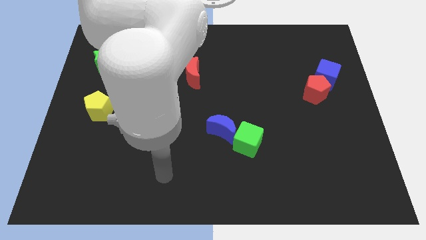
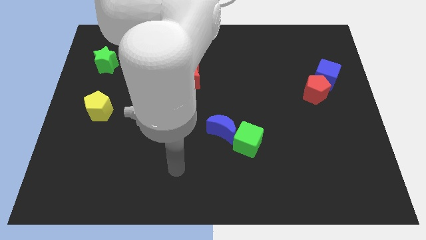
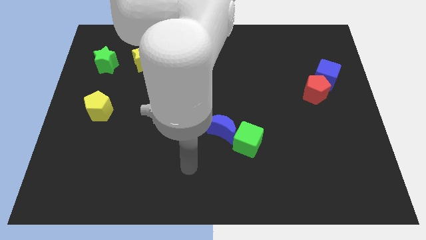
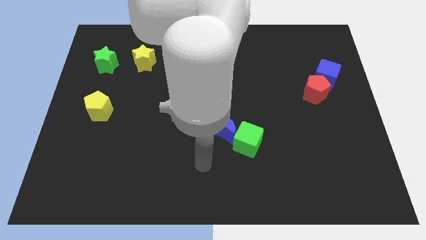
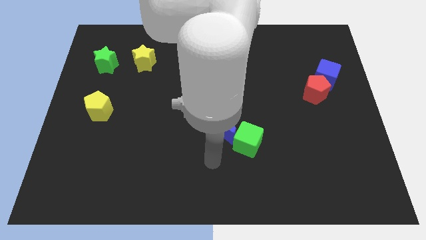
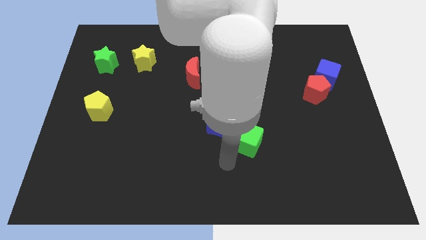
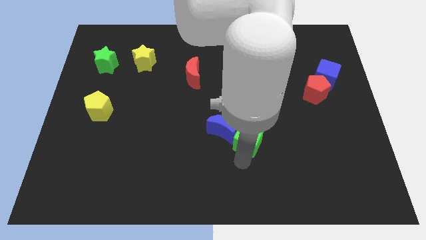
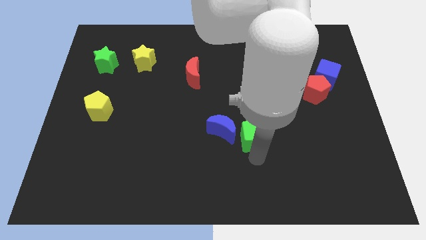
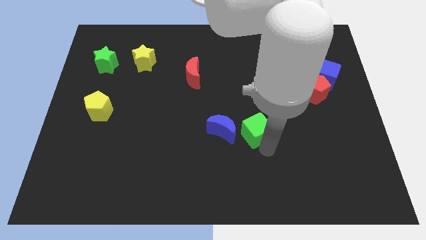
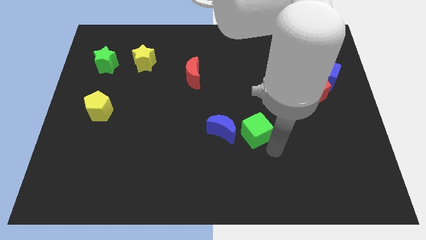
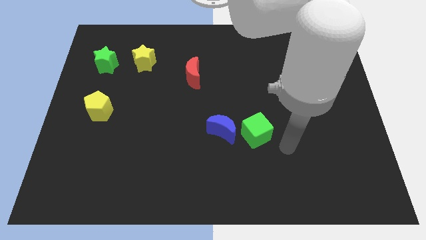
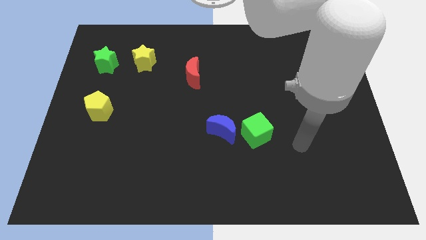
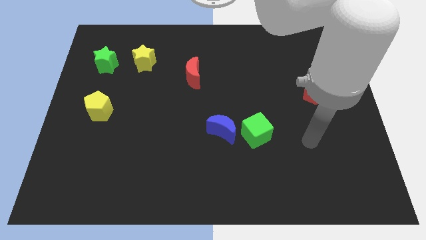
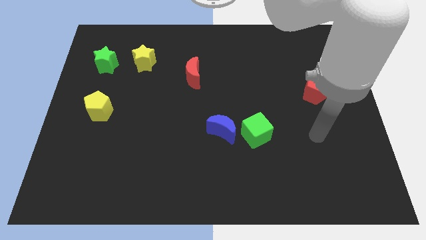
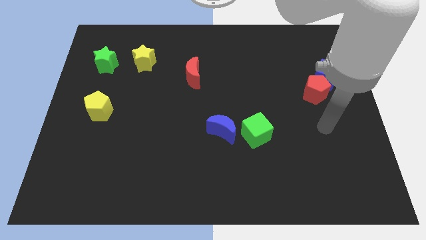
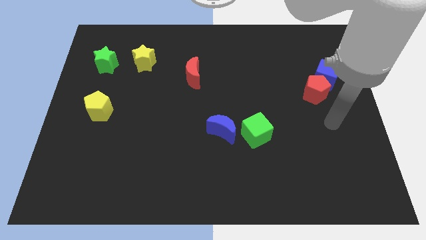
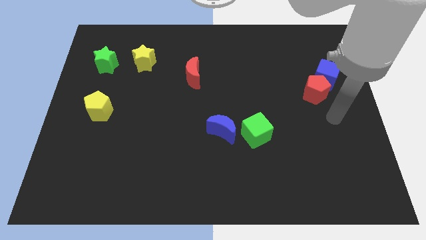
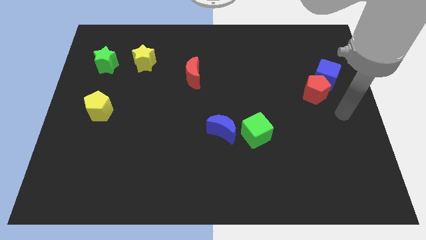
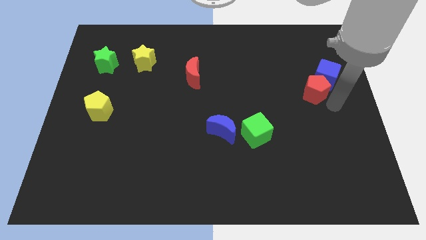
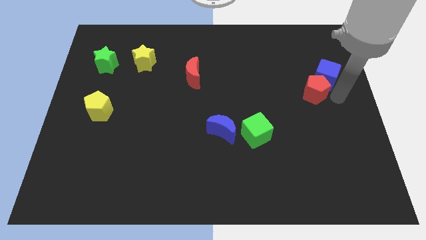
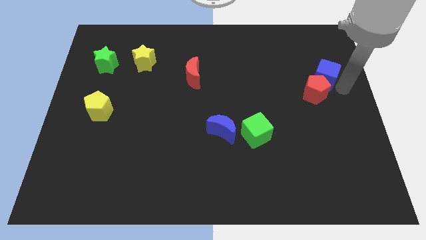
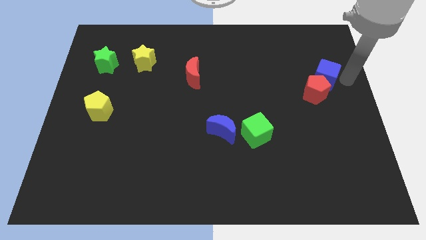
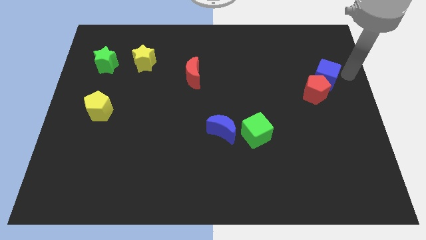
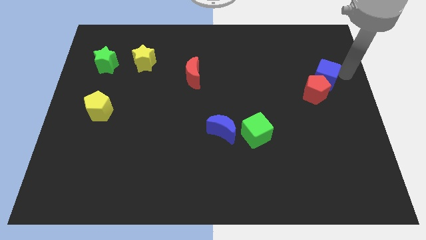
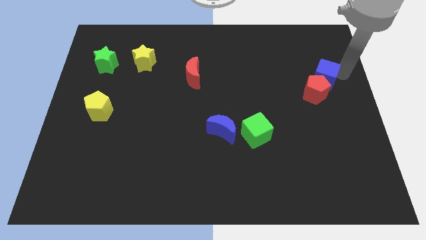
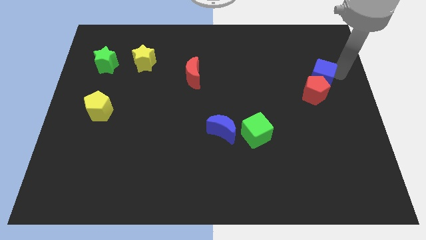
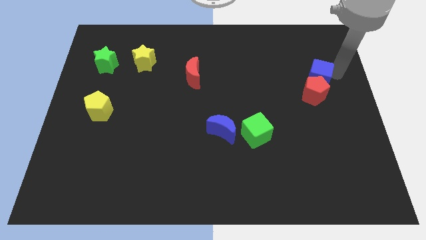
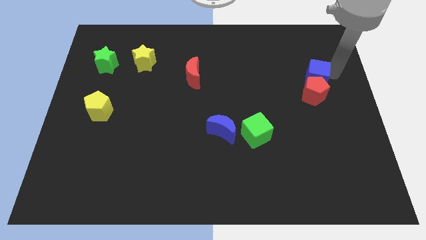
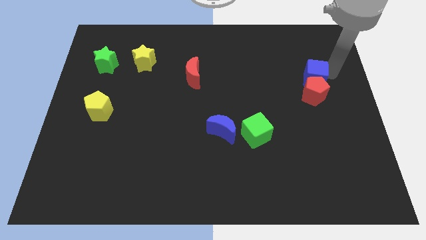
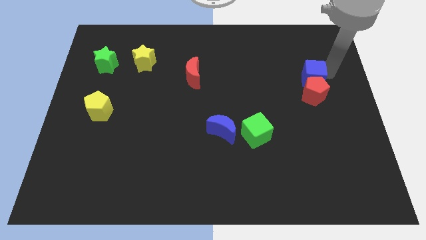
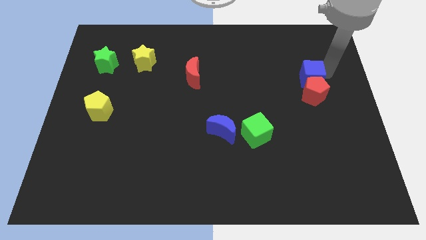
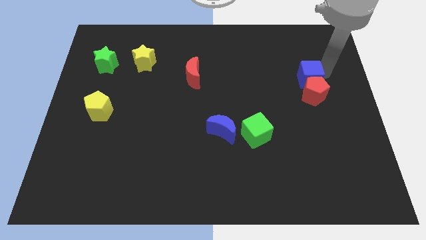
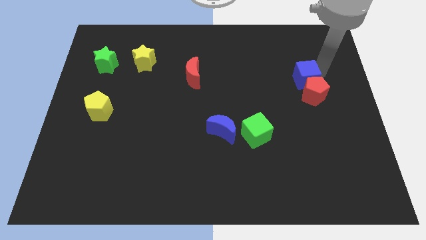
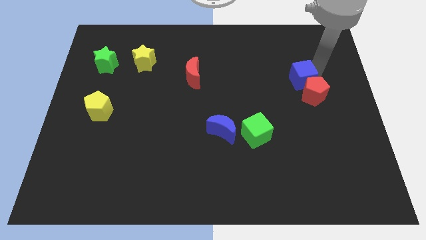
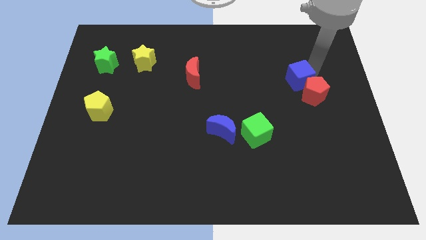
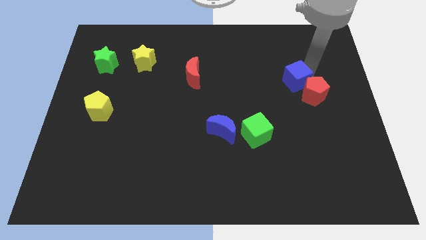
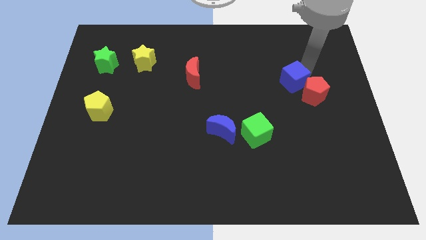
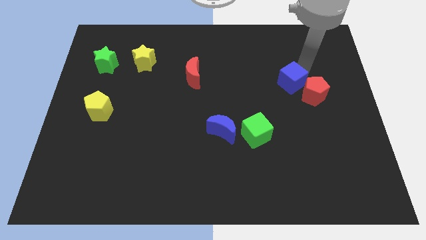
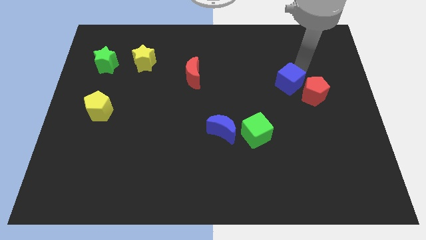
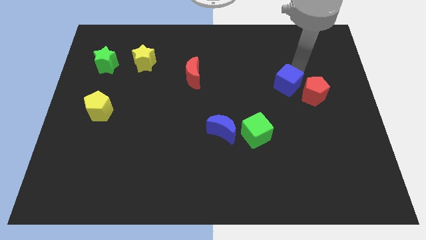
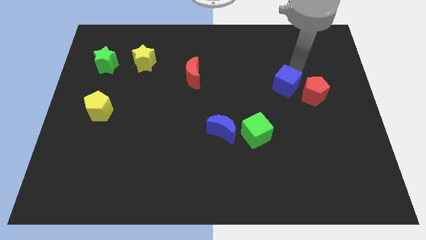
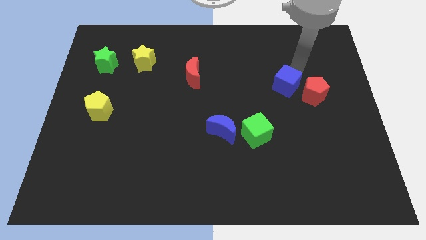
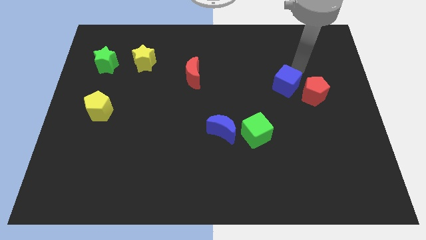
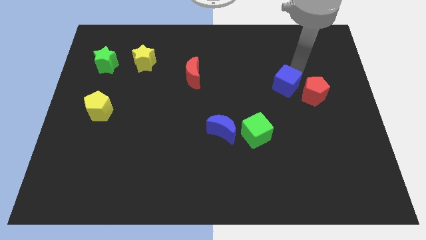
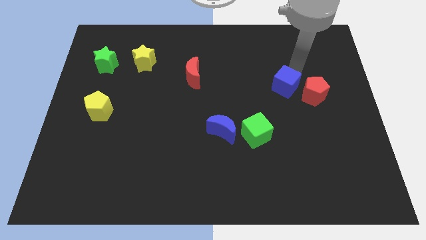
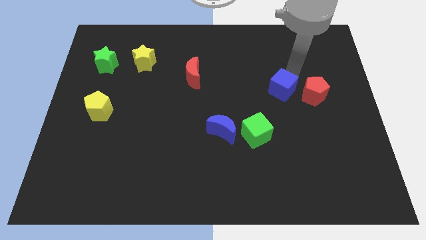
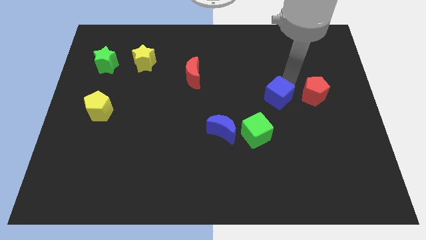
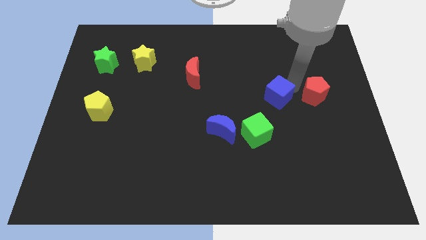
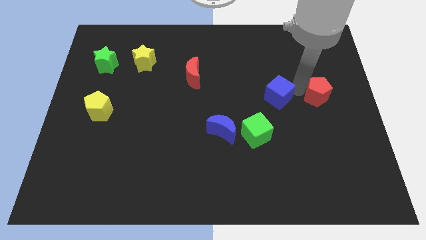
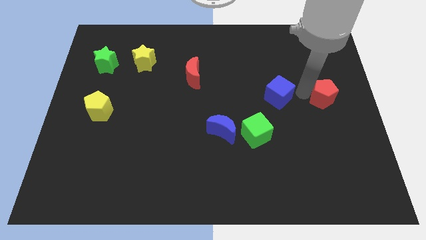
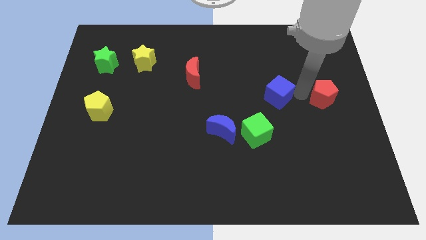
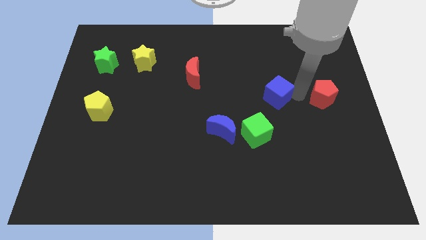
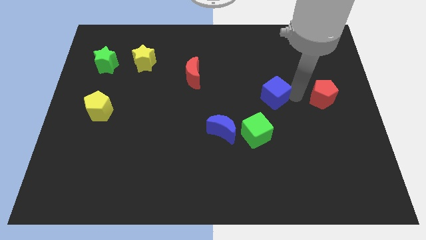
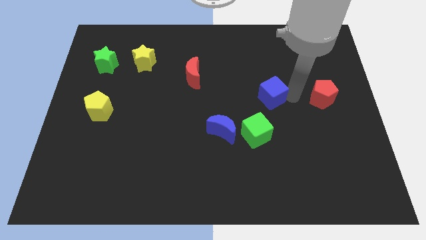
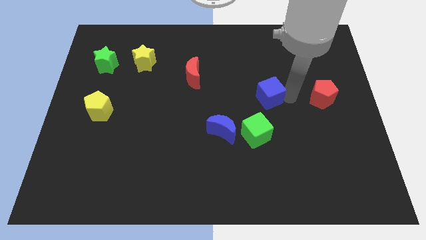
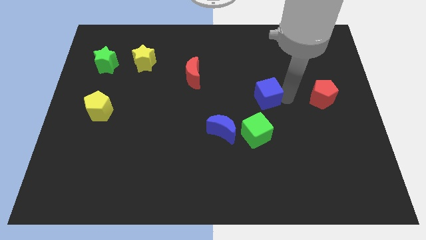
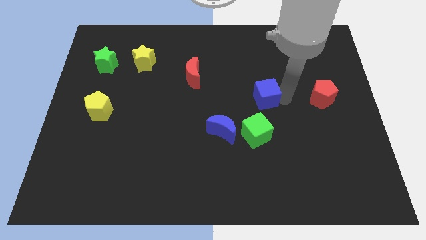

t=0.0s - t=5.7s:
push the blue cube to the center of the board
